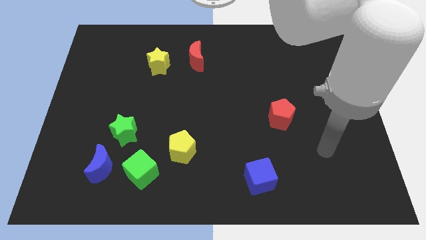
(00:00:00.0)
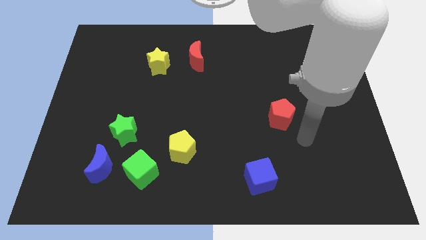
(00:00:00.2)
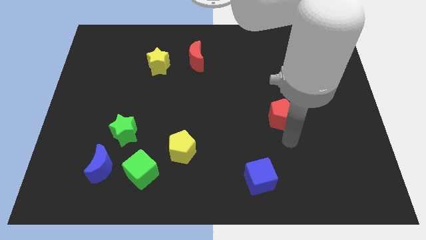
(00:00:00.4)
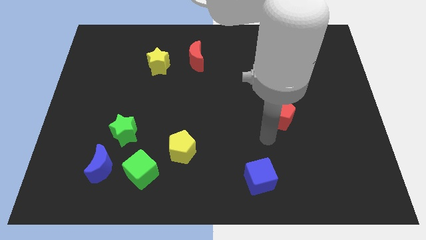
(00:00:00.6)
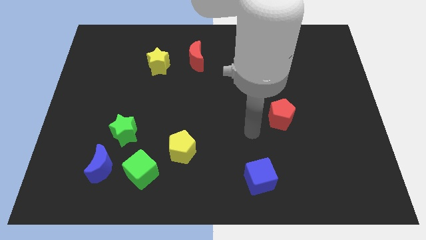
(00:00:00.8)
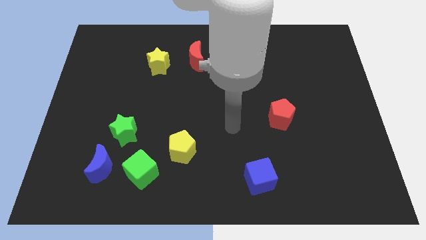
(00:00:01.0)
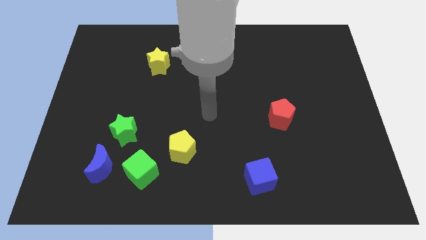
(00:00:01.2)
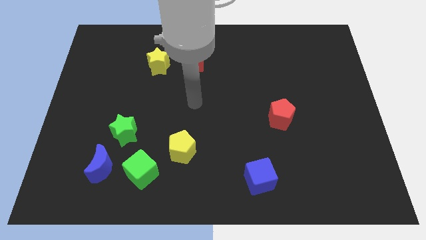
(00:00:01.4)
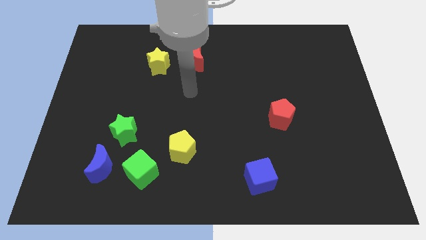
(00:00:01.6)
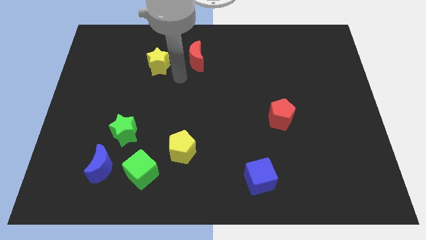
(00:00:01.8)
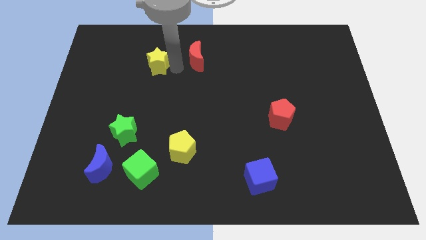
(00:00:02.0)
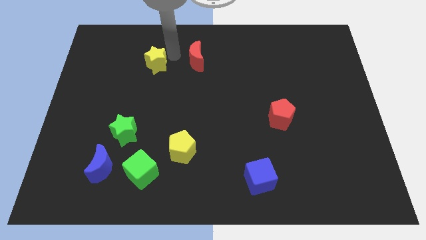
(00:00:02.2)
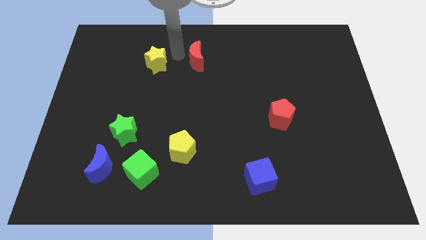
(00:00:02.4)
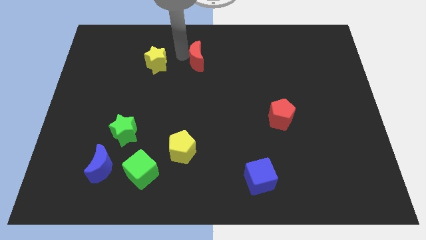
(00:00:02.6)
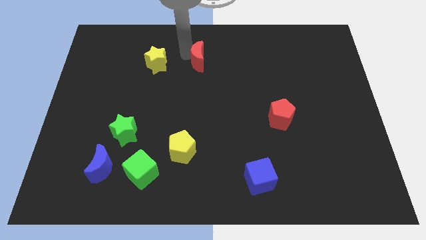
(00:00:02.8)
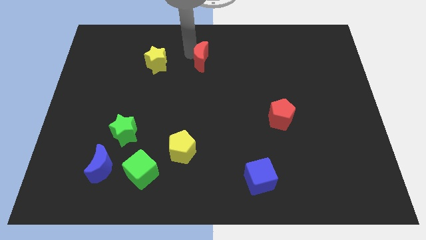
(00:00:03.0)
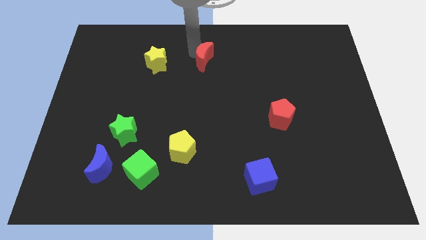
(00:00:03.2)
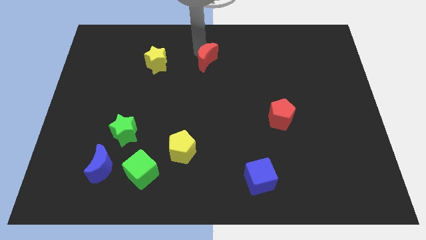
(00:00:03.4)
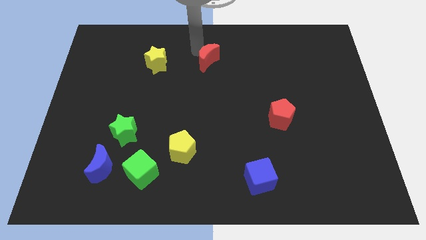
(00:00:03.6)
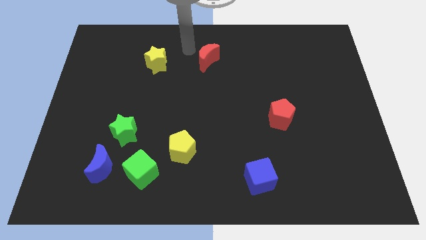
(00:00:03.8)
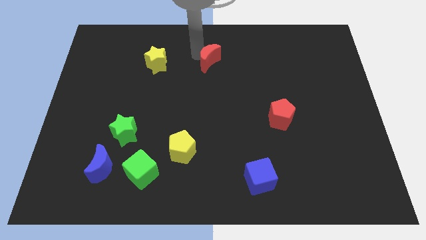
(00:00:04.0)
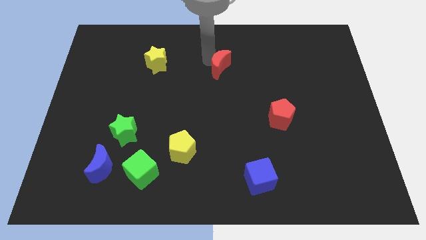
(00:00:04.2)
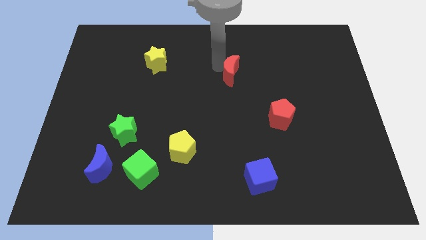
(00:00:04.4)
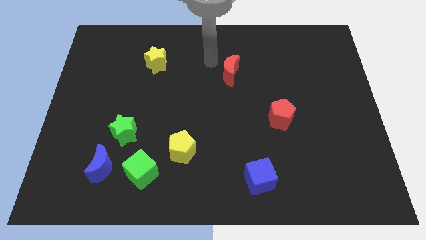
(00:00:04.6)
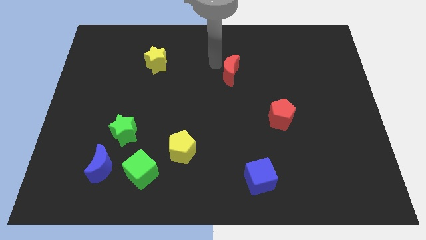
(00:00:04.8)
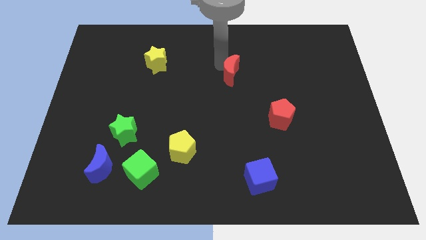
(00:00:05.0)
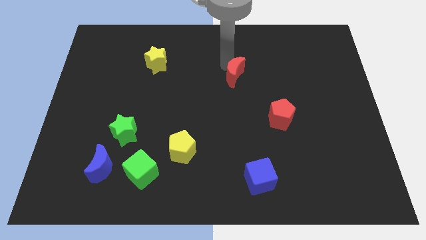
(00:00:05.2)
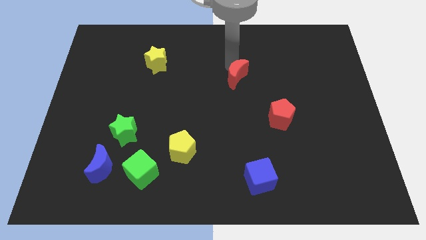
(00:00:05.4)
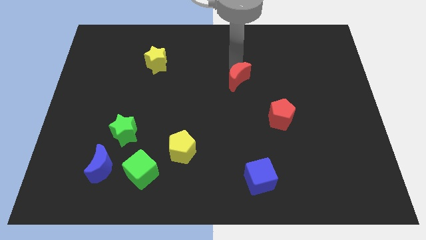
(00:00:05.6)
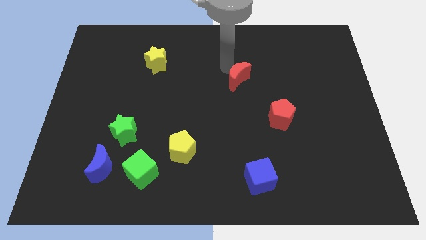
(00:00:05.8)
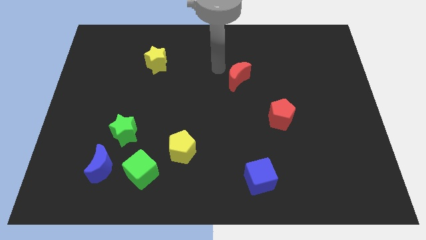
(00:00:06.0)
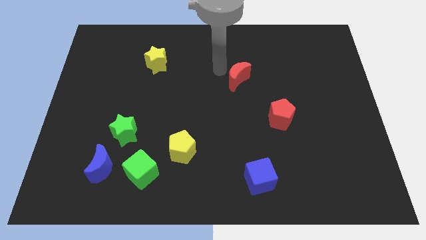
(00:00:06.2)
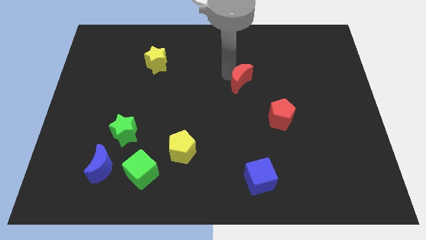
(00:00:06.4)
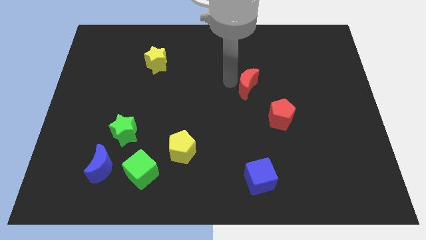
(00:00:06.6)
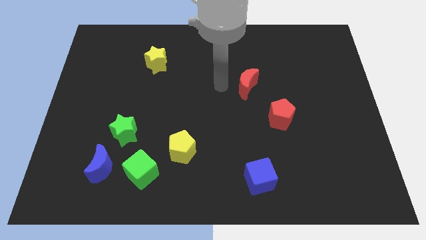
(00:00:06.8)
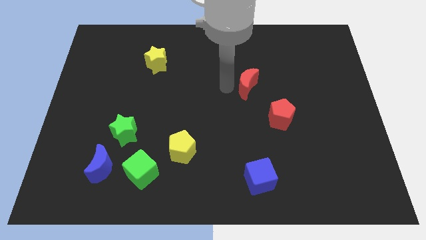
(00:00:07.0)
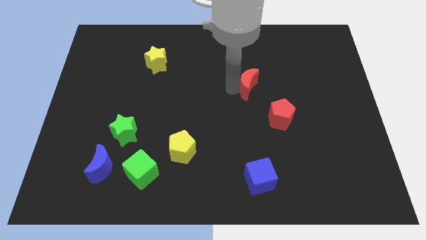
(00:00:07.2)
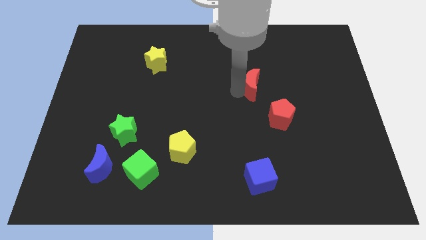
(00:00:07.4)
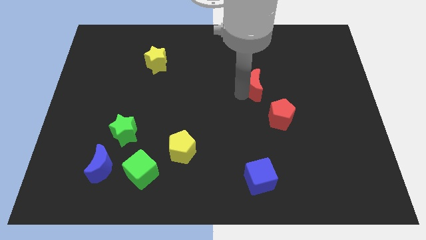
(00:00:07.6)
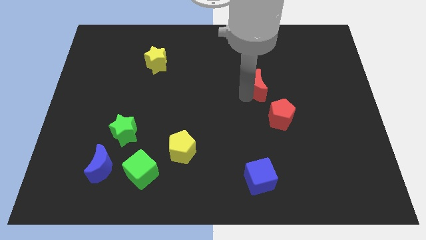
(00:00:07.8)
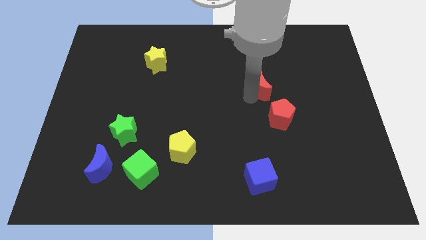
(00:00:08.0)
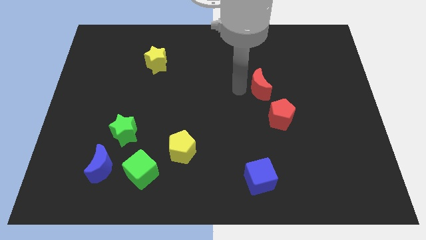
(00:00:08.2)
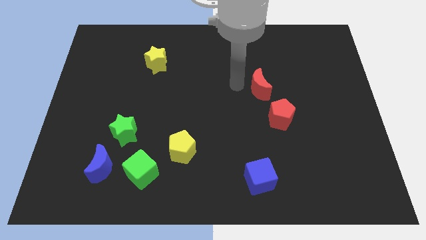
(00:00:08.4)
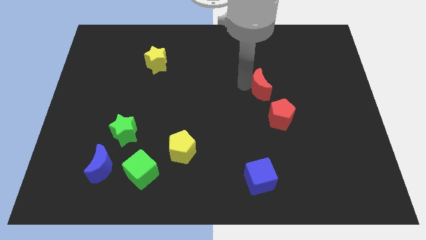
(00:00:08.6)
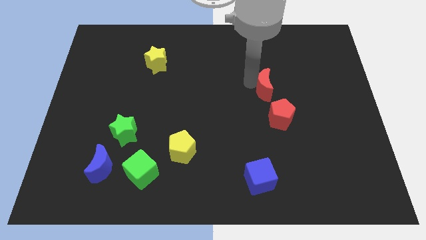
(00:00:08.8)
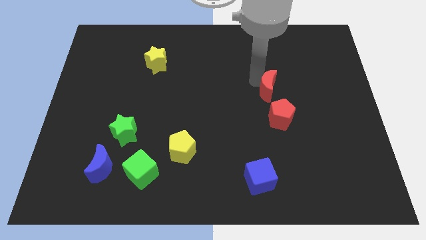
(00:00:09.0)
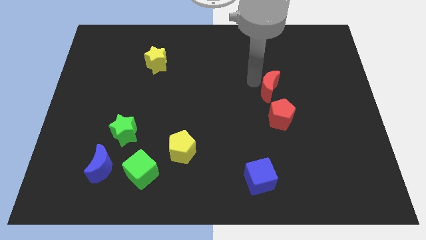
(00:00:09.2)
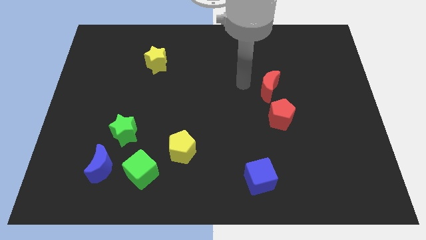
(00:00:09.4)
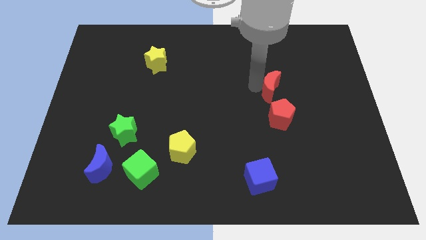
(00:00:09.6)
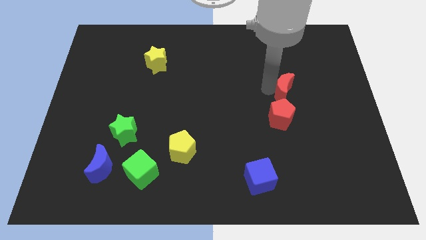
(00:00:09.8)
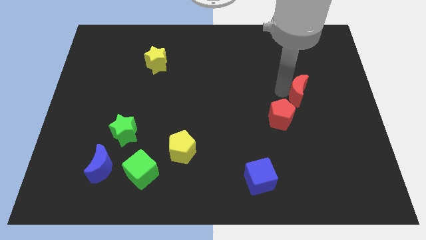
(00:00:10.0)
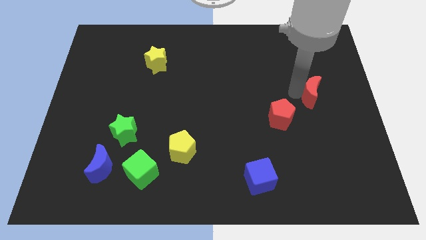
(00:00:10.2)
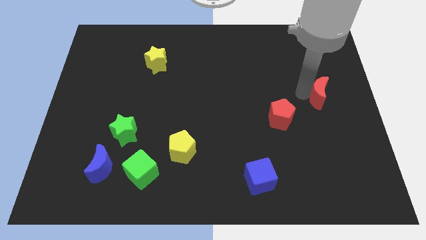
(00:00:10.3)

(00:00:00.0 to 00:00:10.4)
put the red moon to the right side

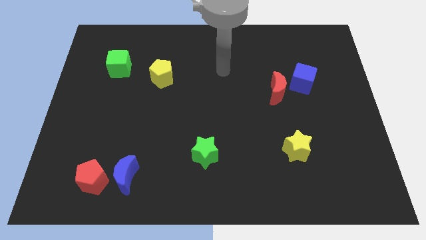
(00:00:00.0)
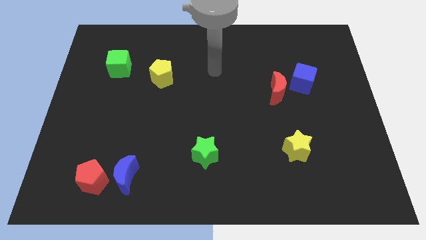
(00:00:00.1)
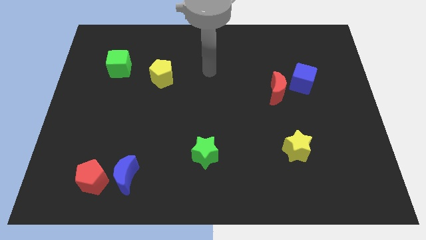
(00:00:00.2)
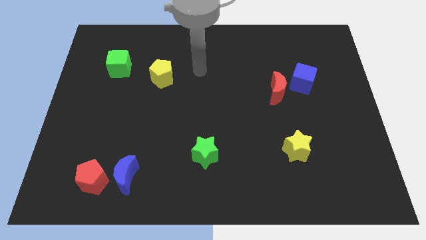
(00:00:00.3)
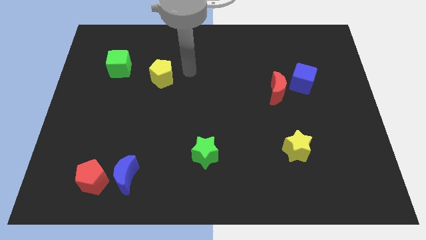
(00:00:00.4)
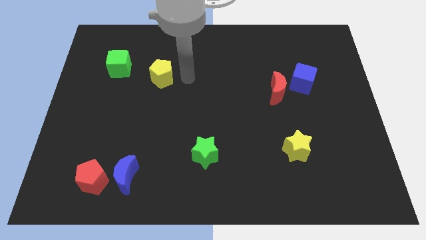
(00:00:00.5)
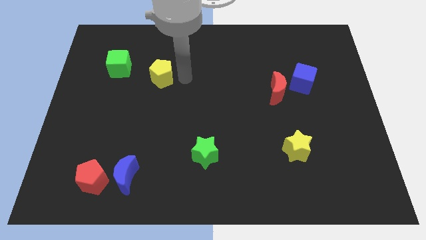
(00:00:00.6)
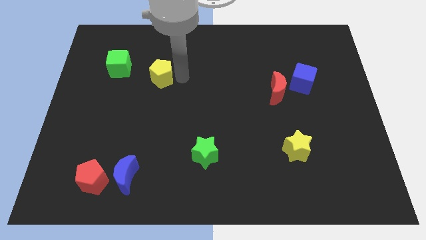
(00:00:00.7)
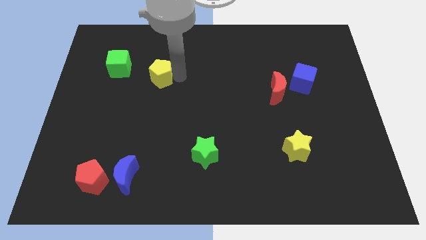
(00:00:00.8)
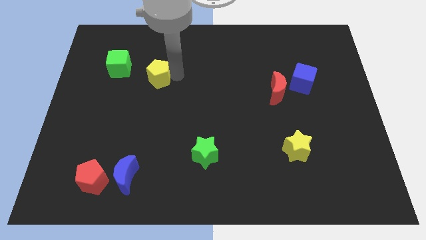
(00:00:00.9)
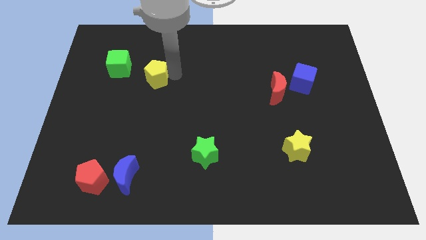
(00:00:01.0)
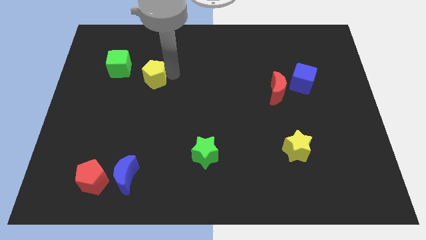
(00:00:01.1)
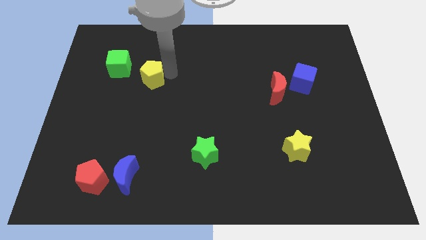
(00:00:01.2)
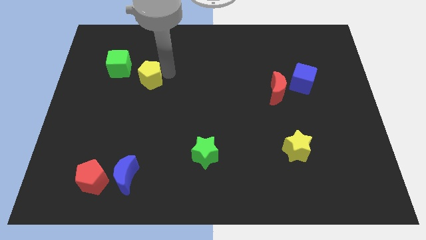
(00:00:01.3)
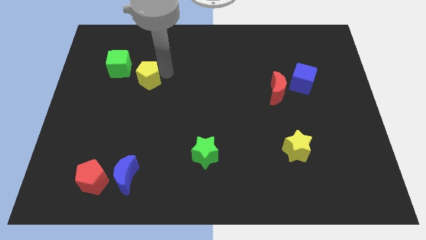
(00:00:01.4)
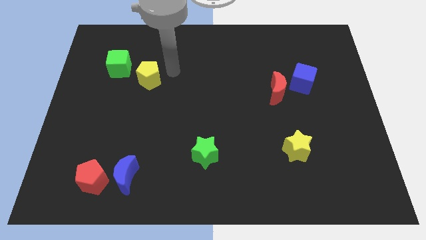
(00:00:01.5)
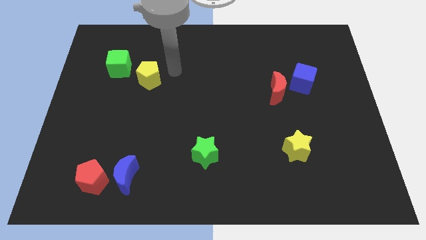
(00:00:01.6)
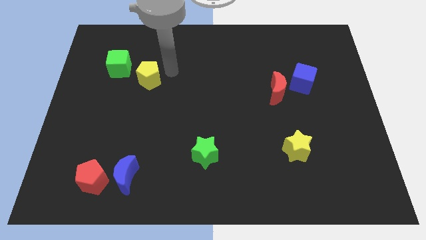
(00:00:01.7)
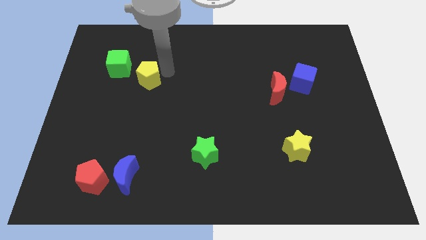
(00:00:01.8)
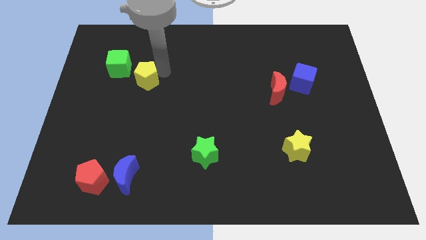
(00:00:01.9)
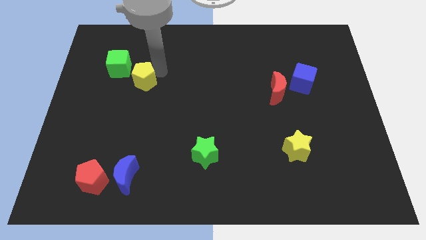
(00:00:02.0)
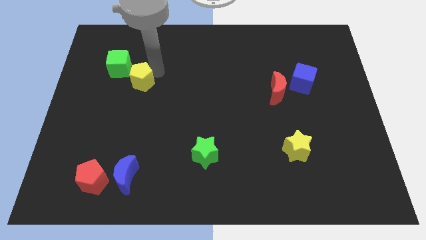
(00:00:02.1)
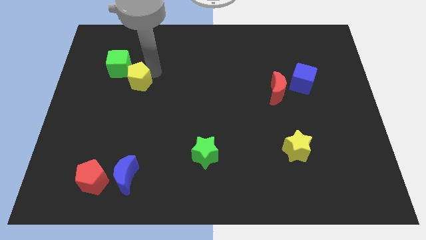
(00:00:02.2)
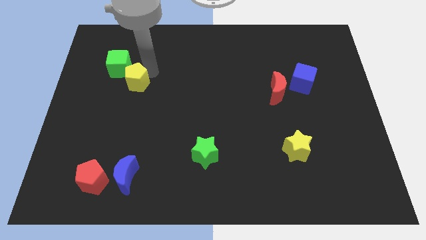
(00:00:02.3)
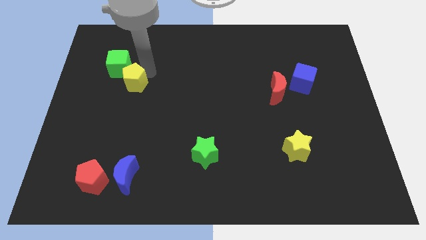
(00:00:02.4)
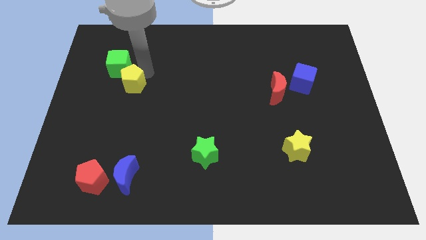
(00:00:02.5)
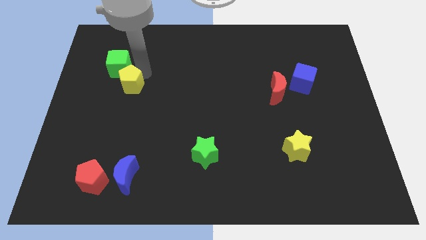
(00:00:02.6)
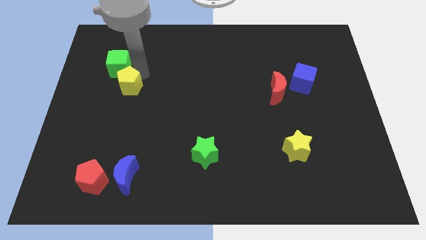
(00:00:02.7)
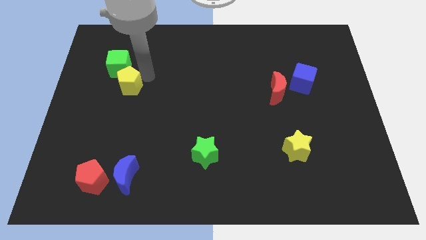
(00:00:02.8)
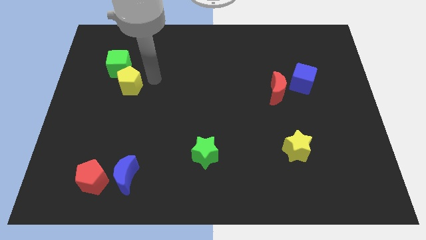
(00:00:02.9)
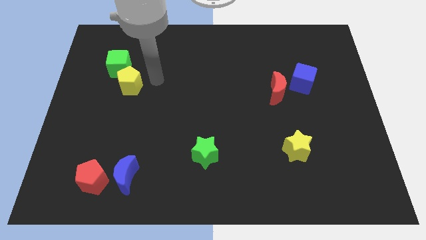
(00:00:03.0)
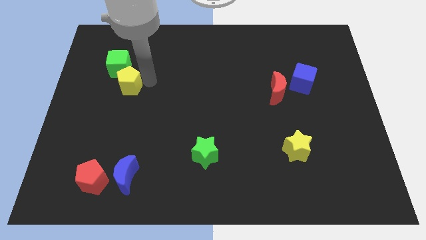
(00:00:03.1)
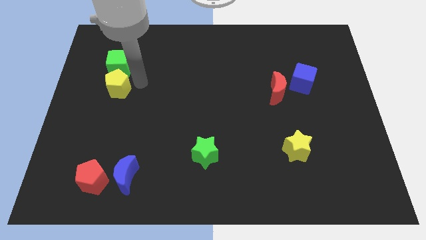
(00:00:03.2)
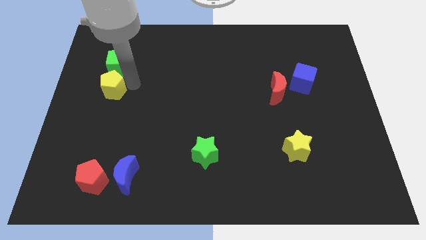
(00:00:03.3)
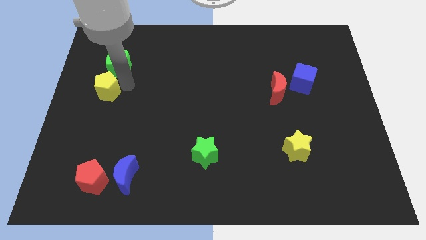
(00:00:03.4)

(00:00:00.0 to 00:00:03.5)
slide the yellow pentagon to the left side of the board
